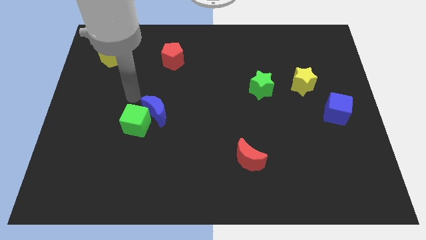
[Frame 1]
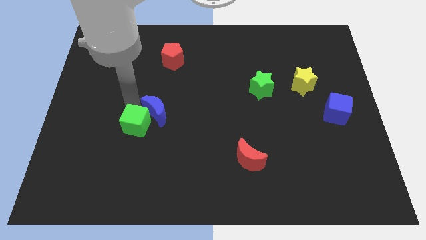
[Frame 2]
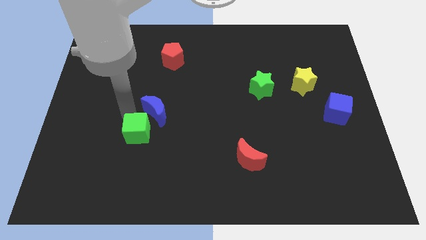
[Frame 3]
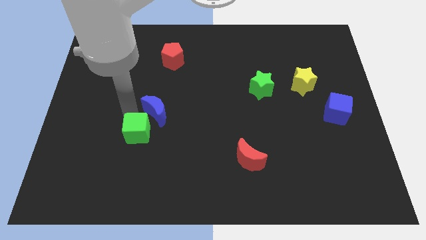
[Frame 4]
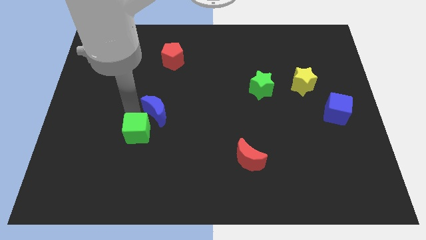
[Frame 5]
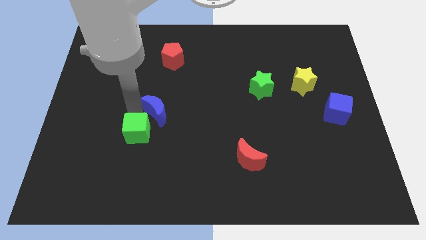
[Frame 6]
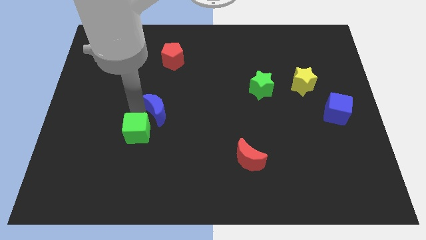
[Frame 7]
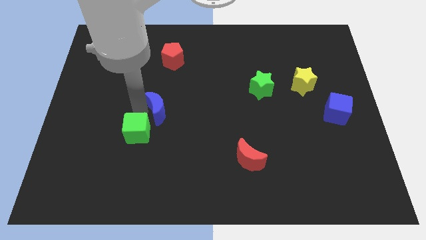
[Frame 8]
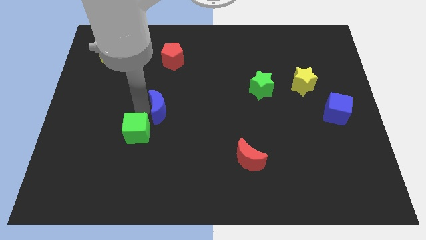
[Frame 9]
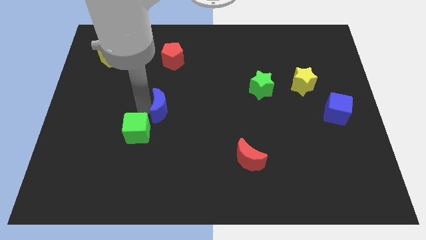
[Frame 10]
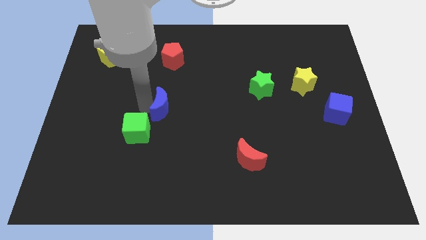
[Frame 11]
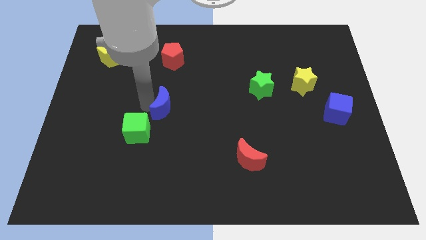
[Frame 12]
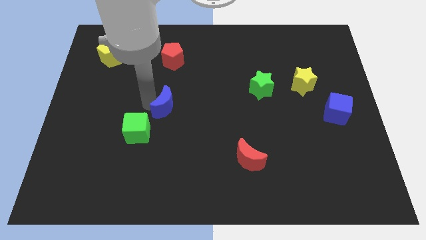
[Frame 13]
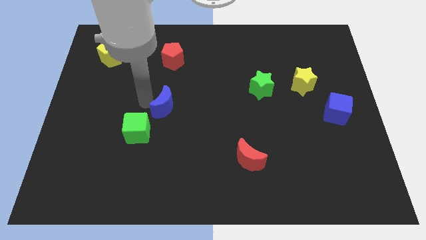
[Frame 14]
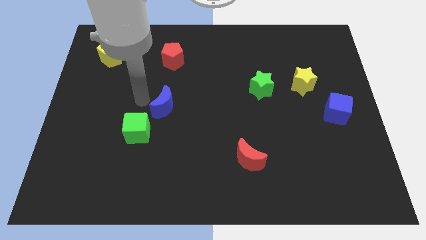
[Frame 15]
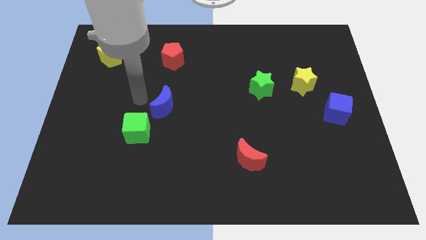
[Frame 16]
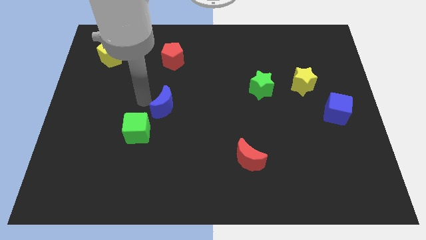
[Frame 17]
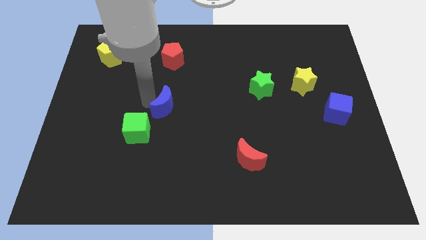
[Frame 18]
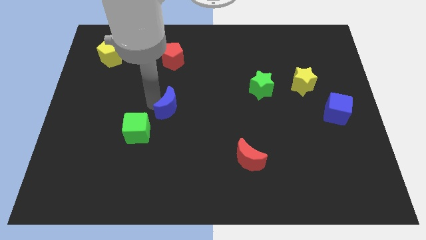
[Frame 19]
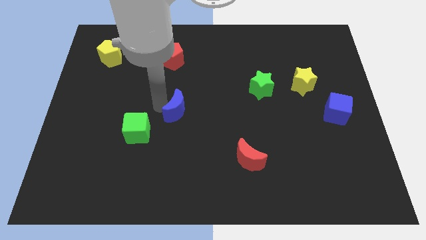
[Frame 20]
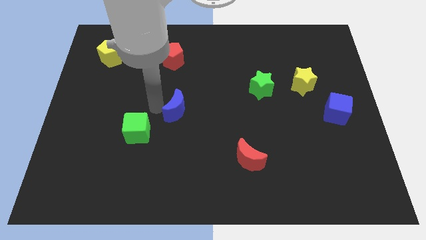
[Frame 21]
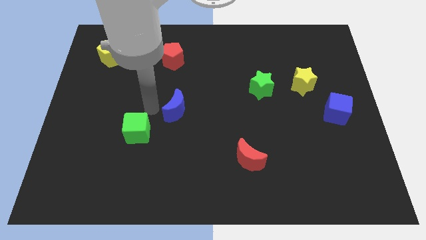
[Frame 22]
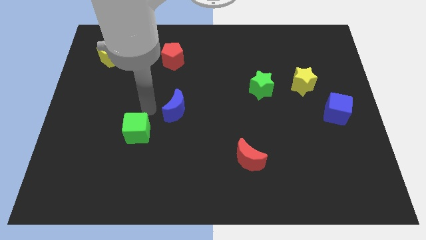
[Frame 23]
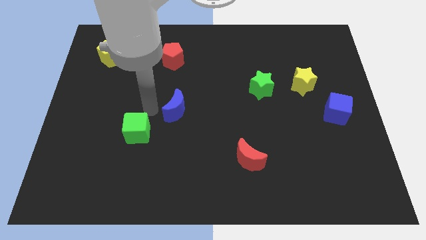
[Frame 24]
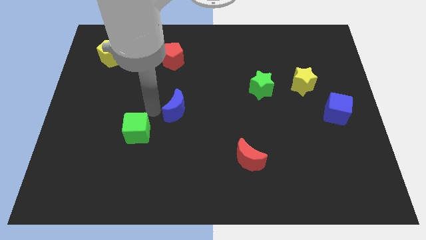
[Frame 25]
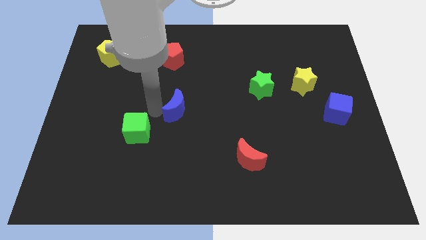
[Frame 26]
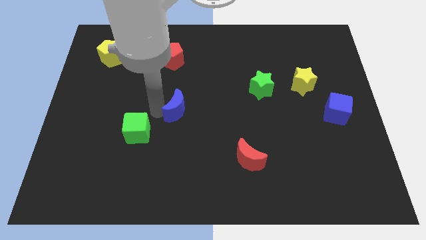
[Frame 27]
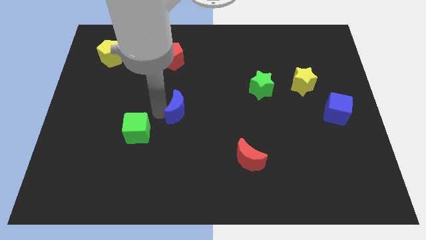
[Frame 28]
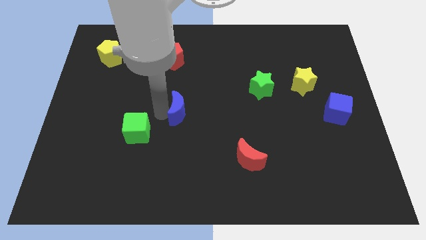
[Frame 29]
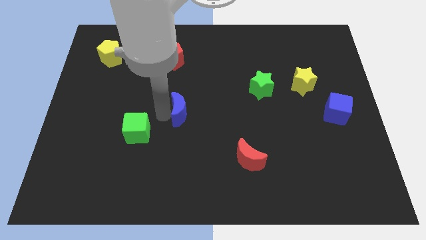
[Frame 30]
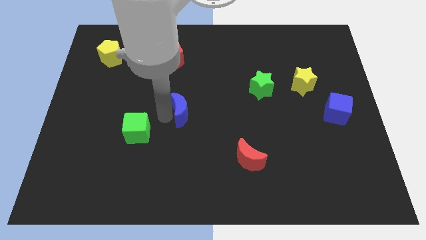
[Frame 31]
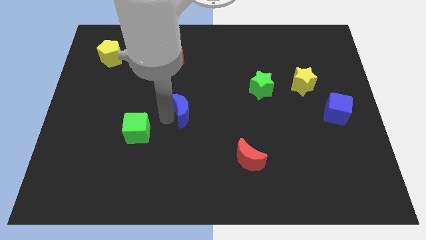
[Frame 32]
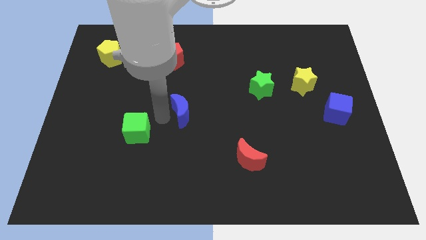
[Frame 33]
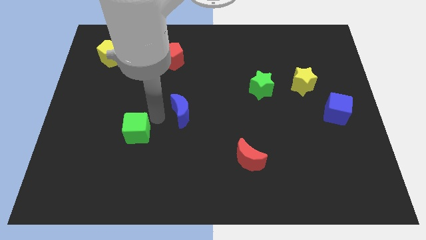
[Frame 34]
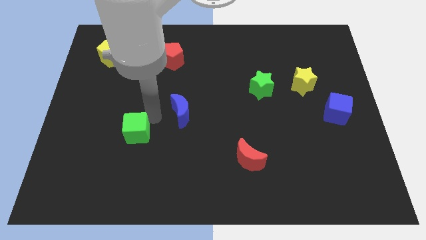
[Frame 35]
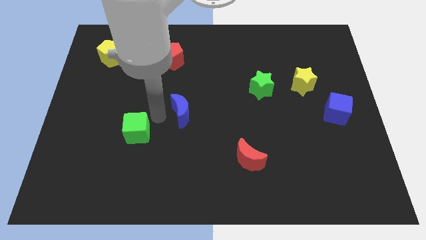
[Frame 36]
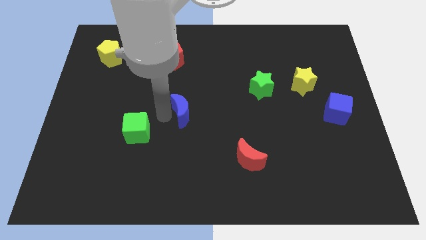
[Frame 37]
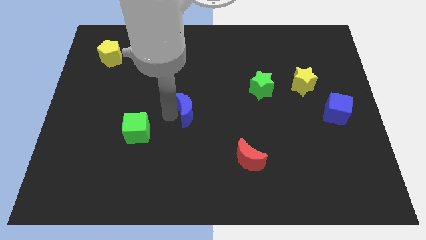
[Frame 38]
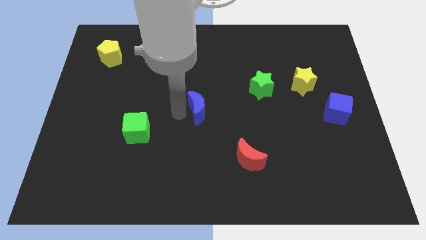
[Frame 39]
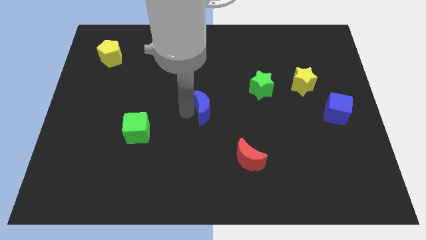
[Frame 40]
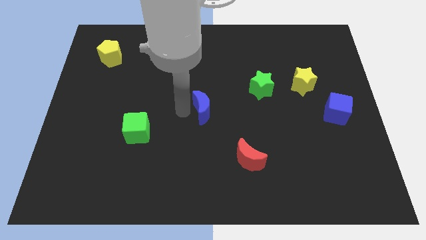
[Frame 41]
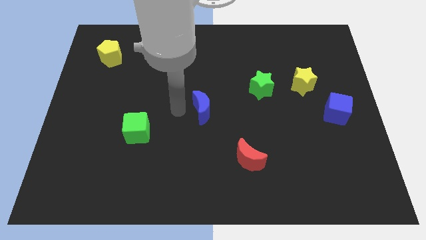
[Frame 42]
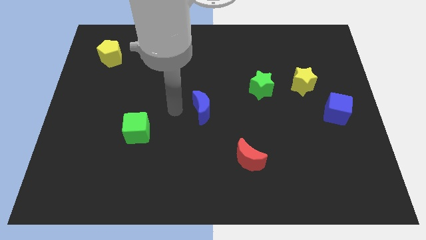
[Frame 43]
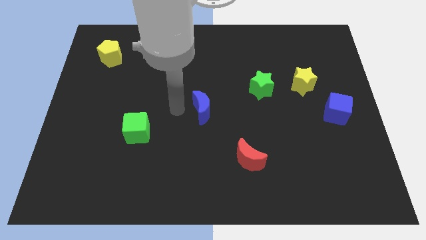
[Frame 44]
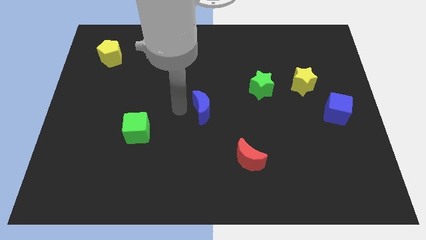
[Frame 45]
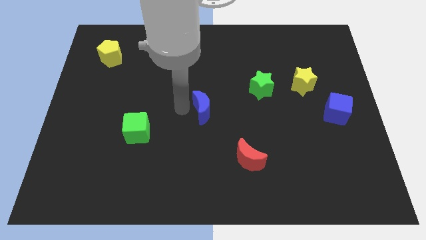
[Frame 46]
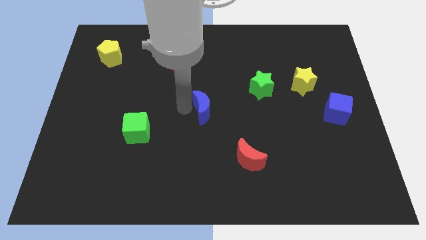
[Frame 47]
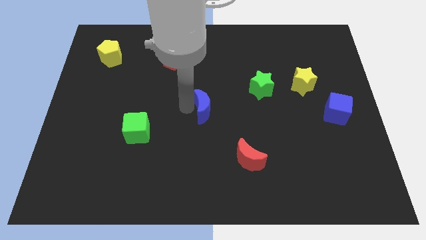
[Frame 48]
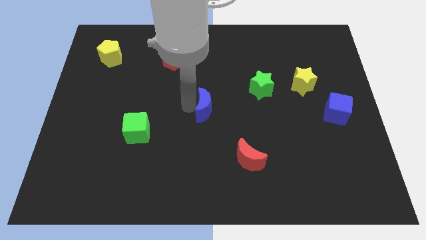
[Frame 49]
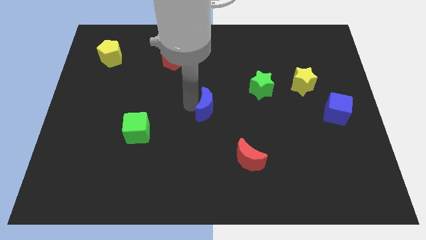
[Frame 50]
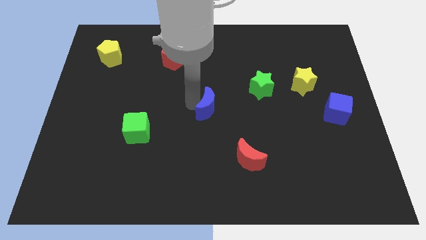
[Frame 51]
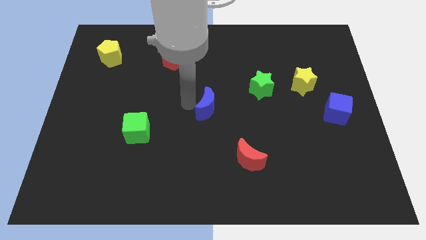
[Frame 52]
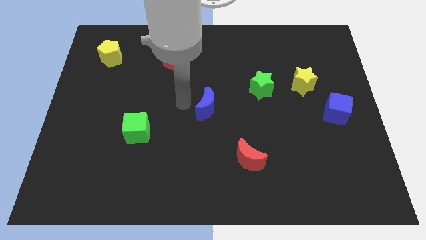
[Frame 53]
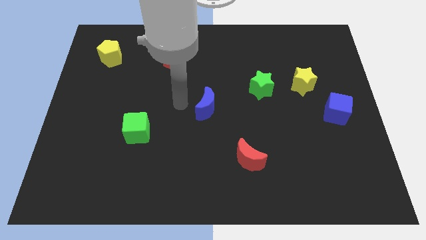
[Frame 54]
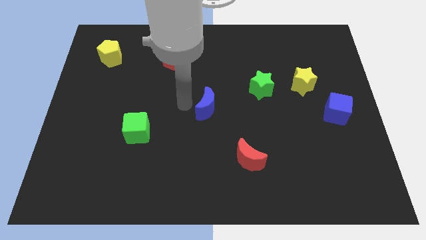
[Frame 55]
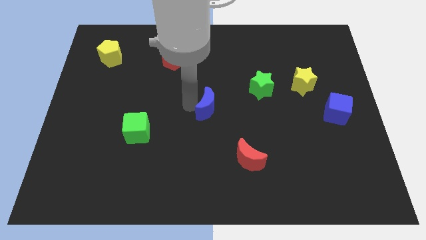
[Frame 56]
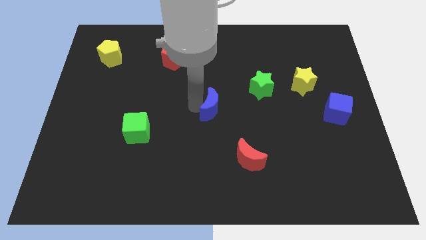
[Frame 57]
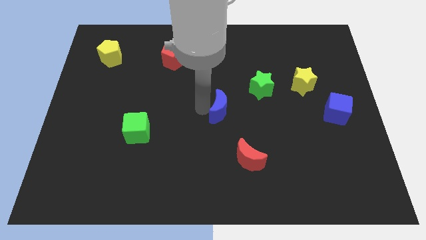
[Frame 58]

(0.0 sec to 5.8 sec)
push the blue moon diagonally down and to the left of the green star

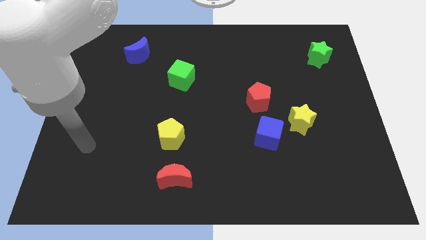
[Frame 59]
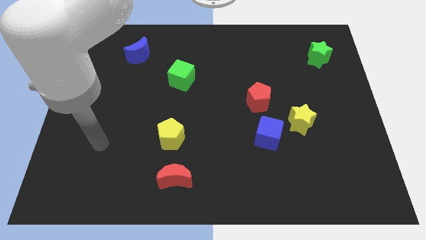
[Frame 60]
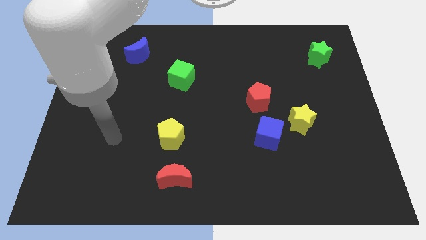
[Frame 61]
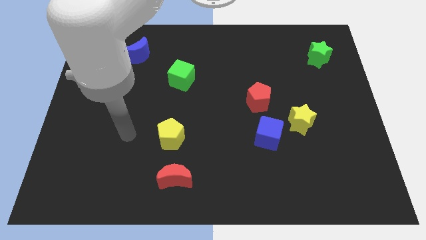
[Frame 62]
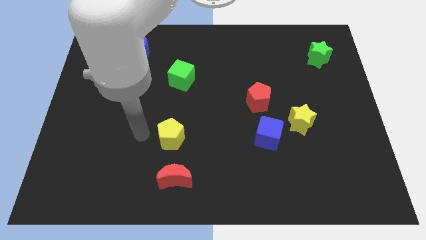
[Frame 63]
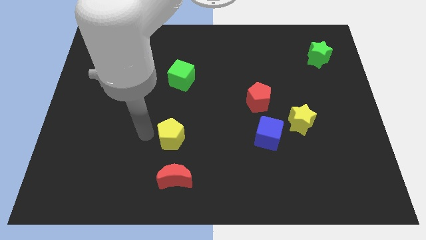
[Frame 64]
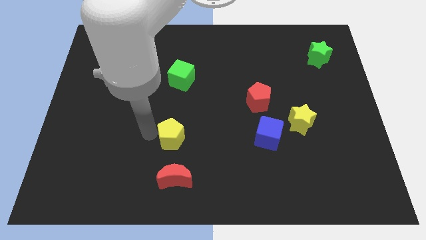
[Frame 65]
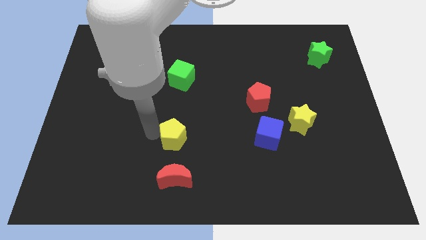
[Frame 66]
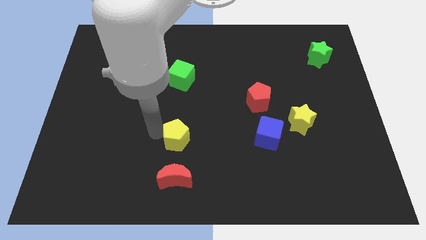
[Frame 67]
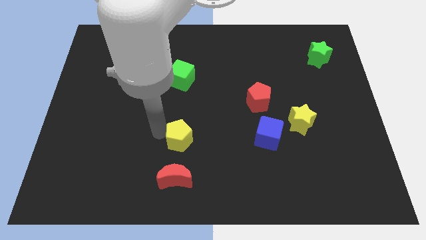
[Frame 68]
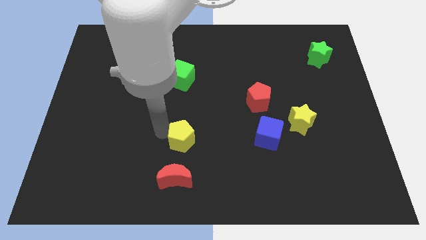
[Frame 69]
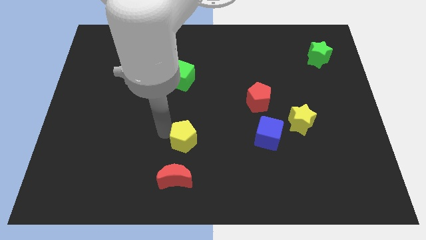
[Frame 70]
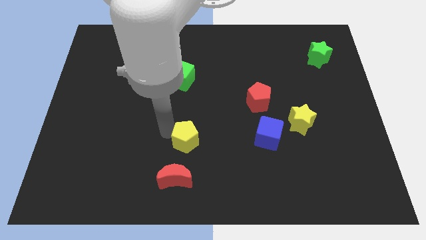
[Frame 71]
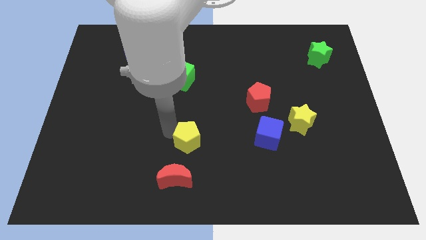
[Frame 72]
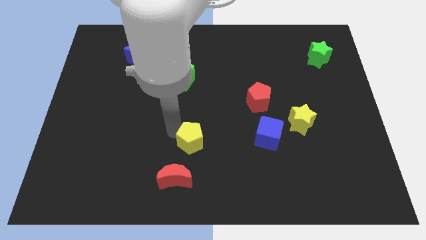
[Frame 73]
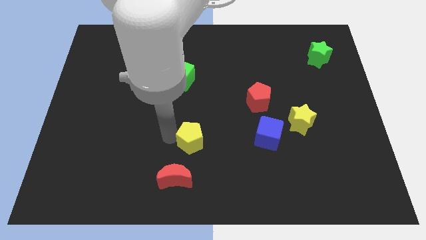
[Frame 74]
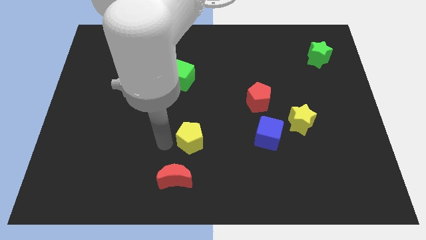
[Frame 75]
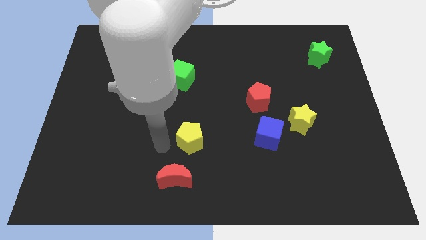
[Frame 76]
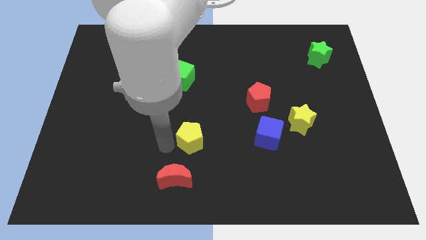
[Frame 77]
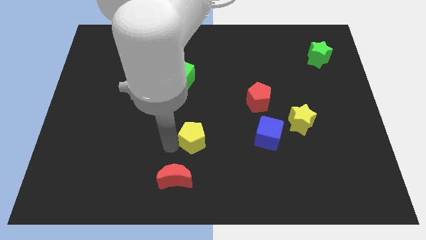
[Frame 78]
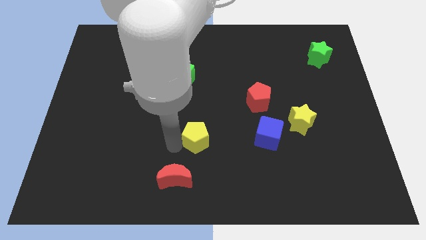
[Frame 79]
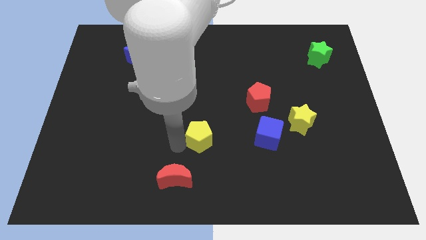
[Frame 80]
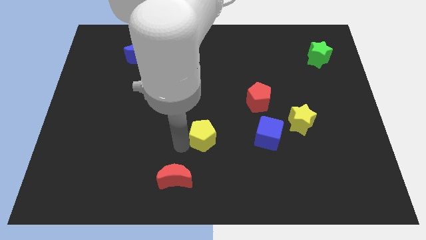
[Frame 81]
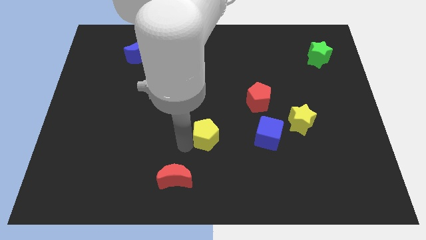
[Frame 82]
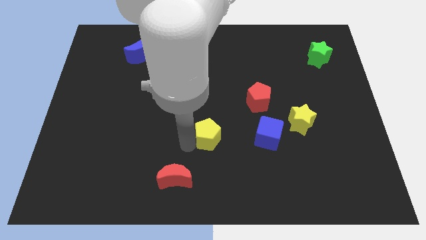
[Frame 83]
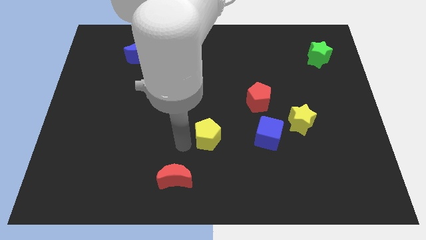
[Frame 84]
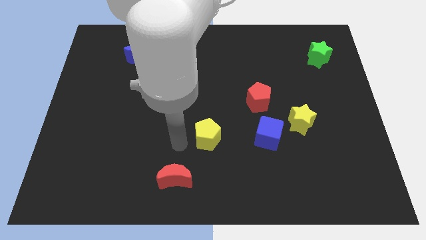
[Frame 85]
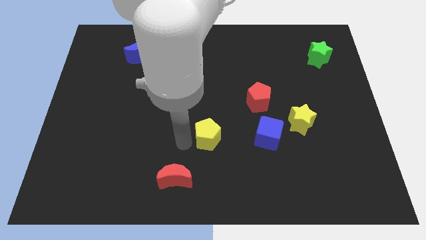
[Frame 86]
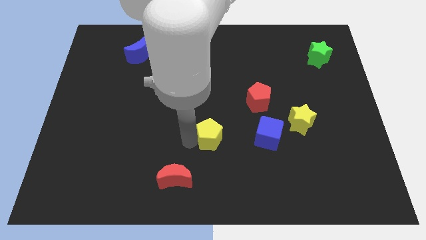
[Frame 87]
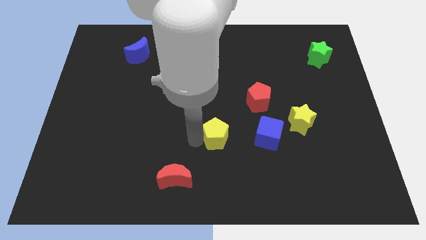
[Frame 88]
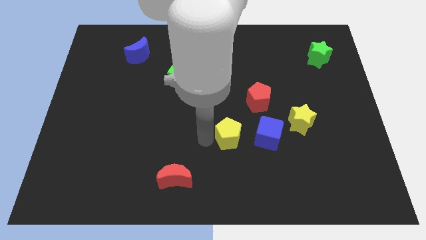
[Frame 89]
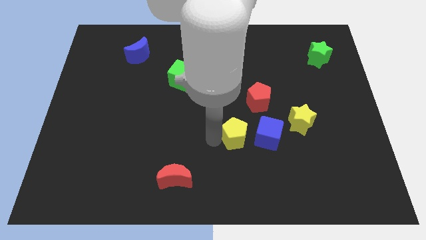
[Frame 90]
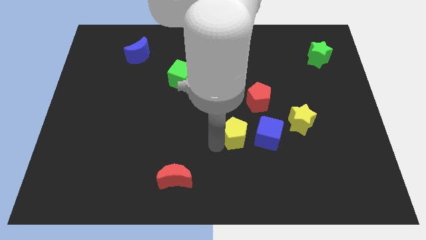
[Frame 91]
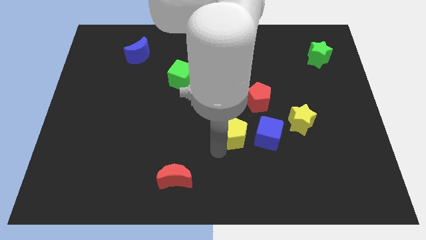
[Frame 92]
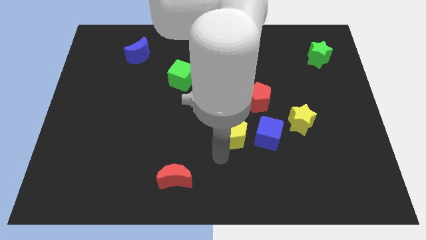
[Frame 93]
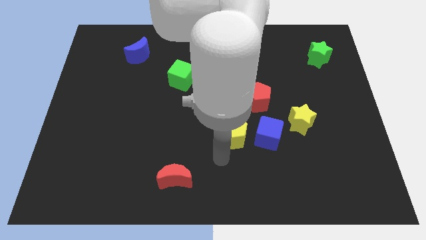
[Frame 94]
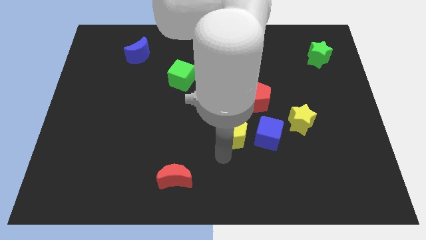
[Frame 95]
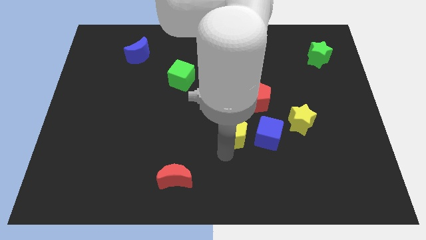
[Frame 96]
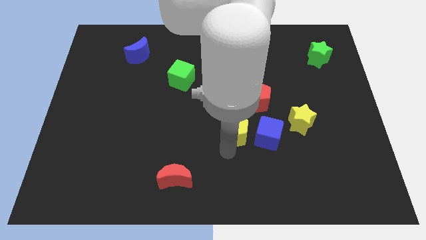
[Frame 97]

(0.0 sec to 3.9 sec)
put the yellow pentagon diagonally up and to the left of the blue cube
